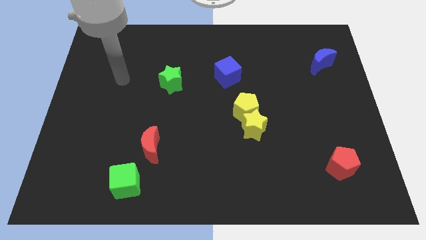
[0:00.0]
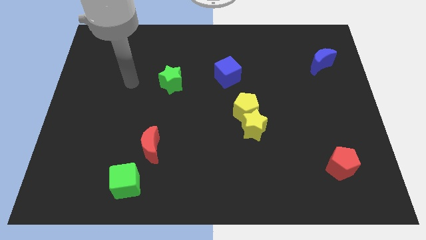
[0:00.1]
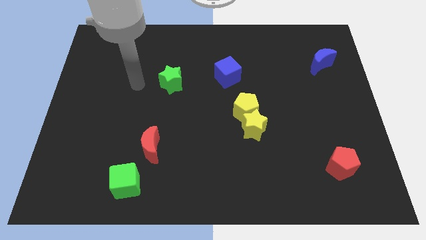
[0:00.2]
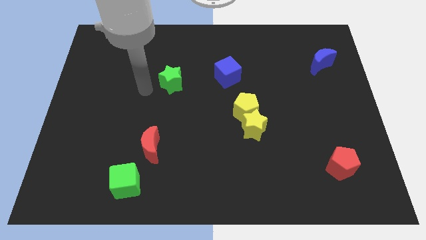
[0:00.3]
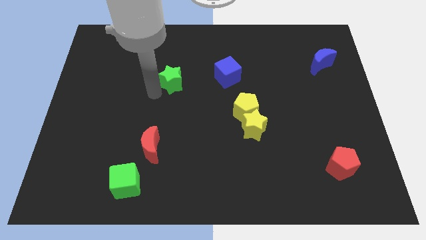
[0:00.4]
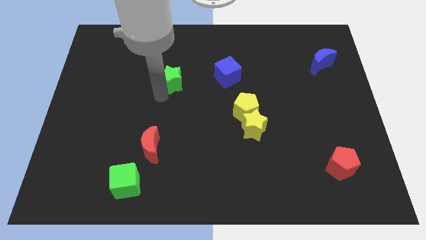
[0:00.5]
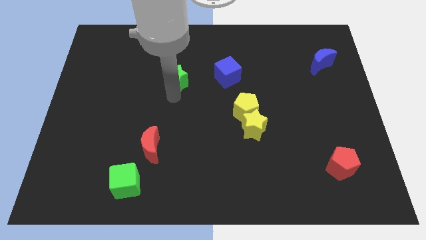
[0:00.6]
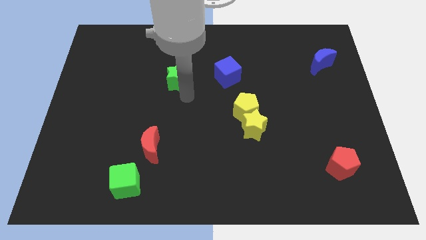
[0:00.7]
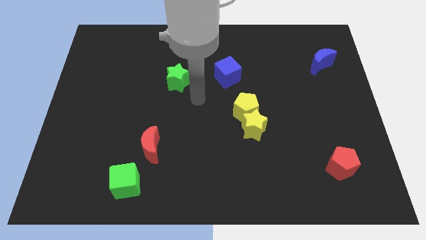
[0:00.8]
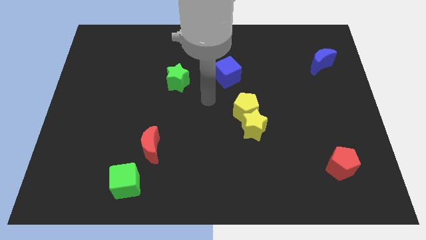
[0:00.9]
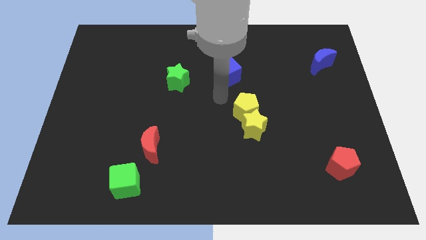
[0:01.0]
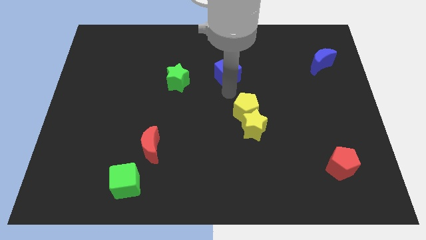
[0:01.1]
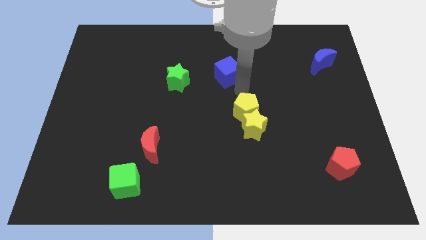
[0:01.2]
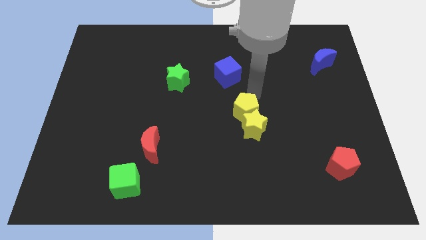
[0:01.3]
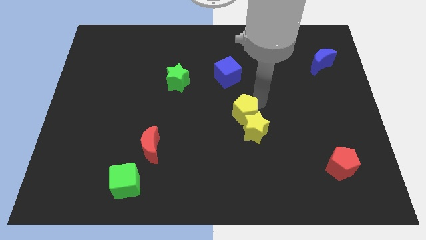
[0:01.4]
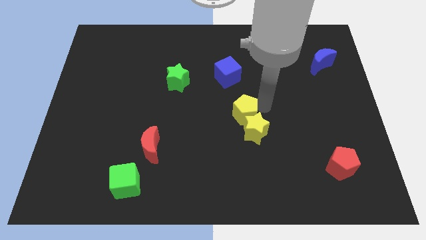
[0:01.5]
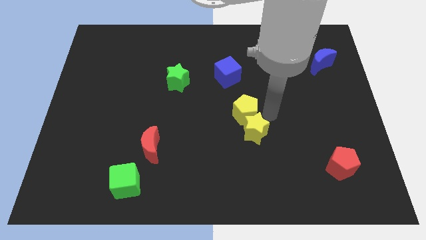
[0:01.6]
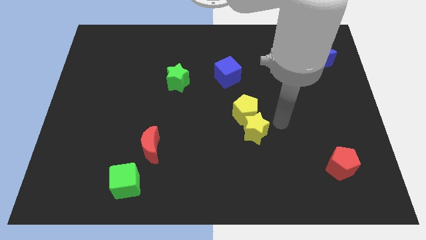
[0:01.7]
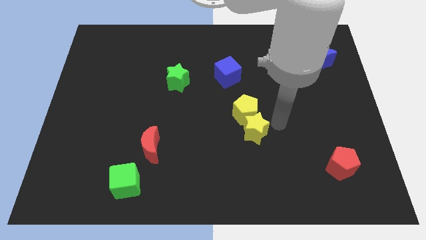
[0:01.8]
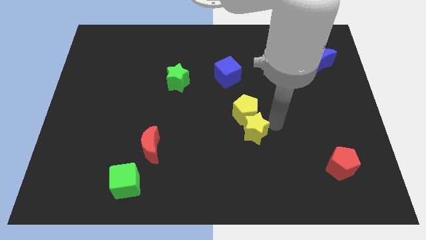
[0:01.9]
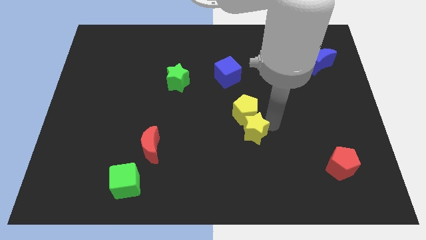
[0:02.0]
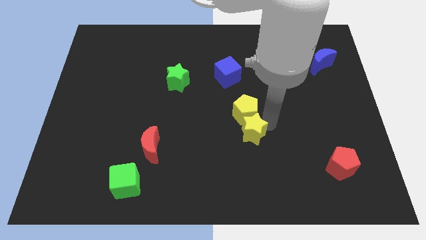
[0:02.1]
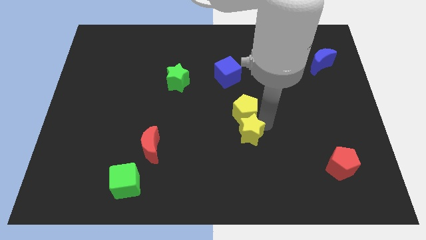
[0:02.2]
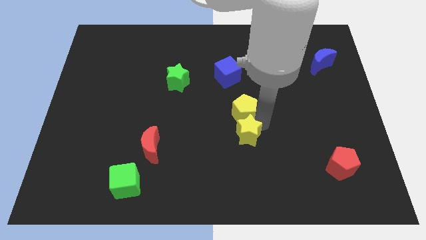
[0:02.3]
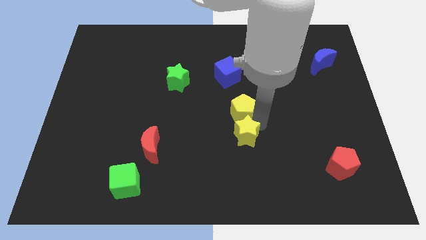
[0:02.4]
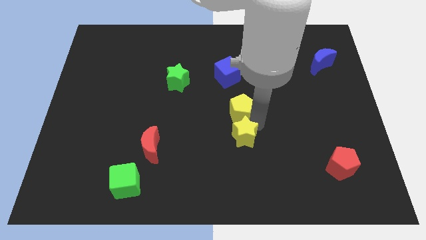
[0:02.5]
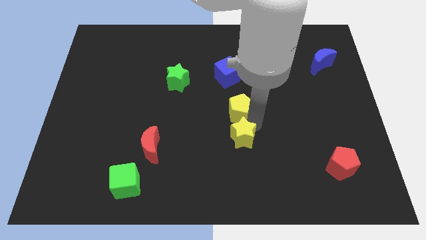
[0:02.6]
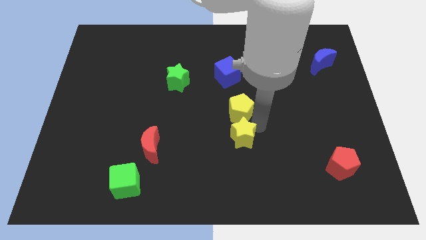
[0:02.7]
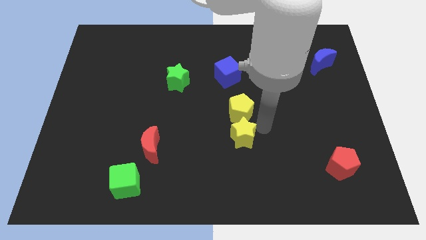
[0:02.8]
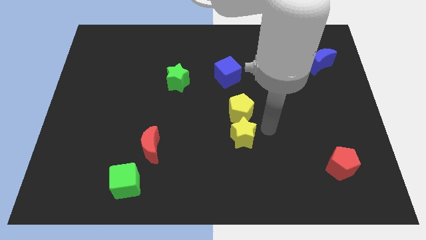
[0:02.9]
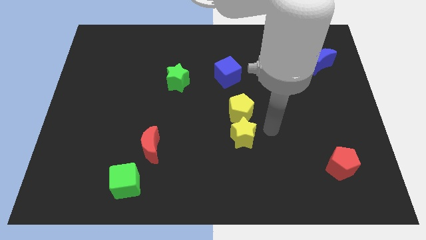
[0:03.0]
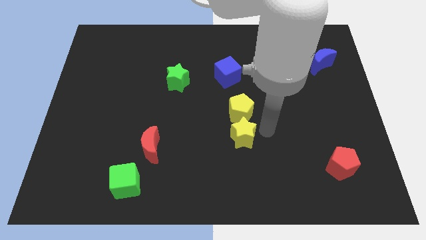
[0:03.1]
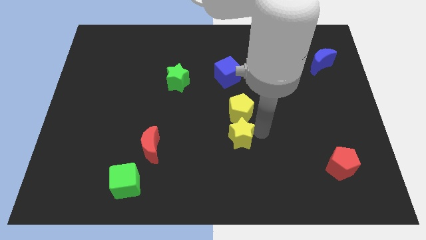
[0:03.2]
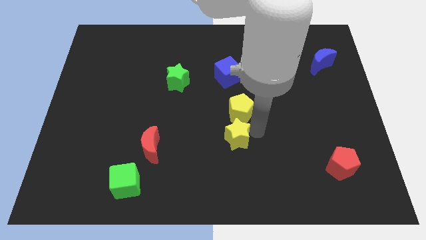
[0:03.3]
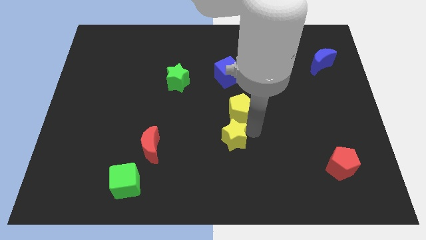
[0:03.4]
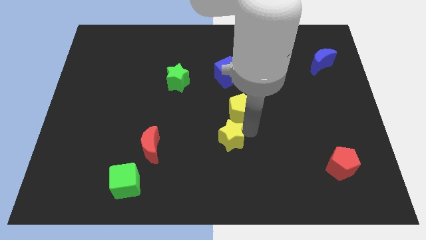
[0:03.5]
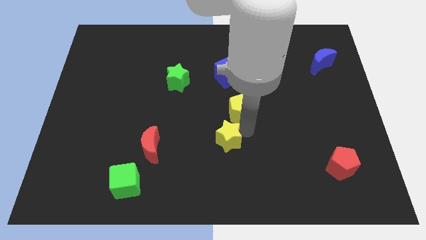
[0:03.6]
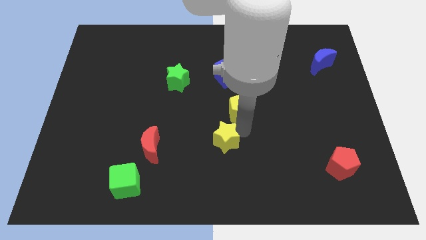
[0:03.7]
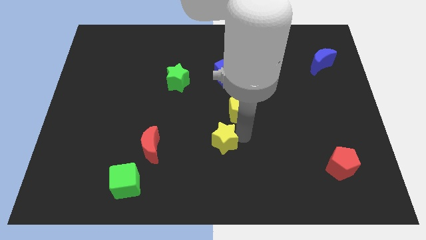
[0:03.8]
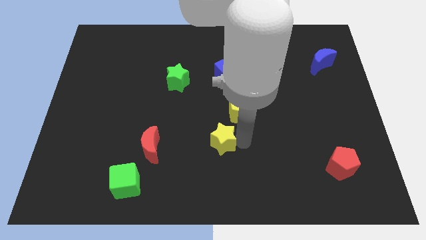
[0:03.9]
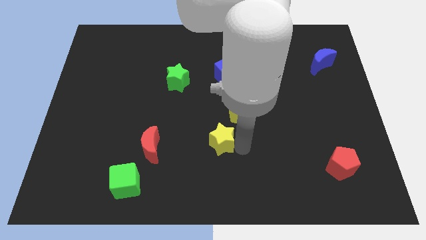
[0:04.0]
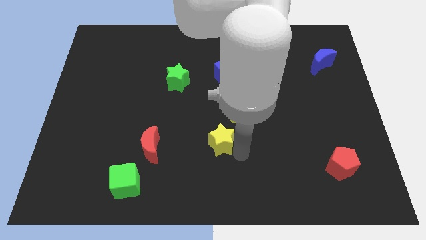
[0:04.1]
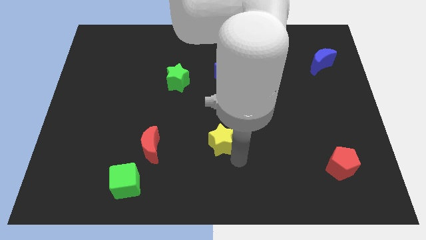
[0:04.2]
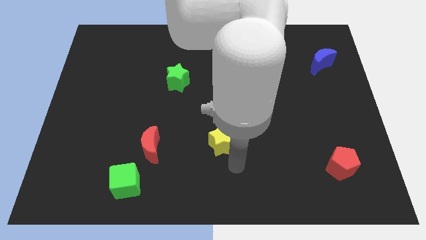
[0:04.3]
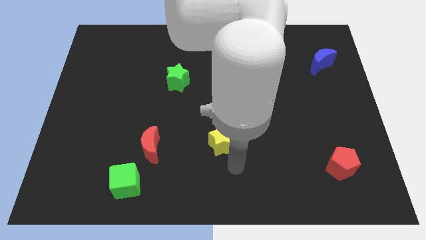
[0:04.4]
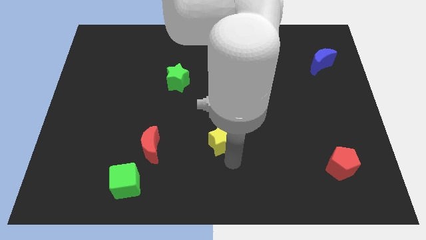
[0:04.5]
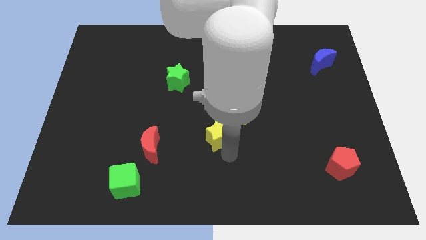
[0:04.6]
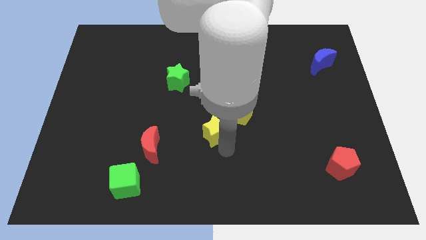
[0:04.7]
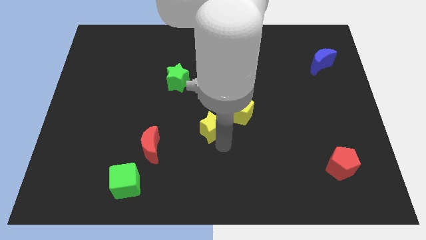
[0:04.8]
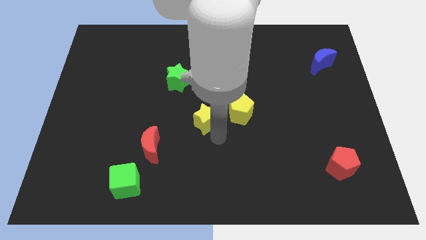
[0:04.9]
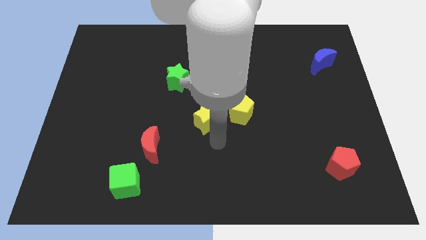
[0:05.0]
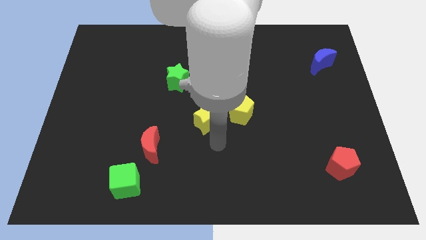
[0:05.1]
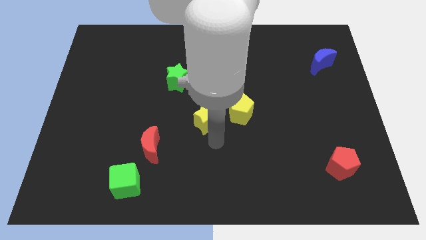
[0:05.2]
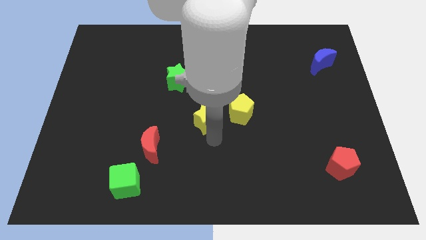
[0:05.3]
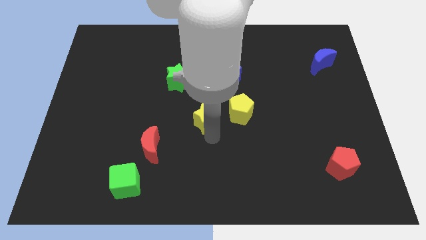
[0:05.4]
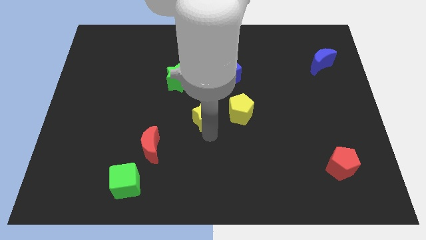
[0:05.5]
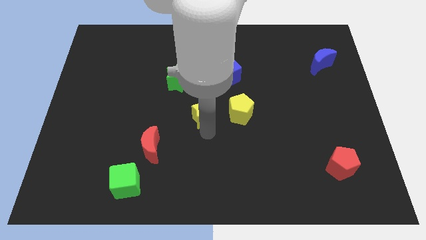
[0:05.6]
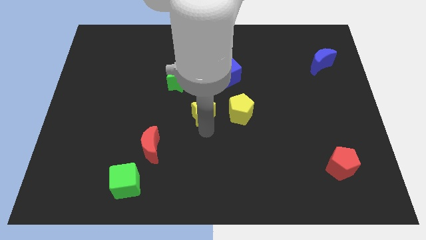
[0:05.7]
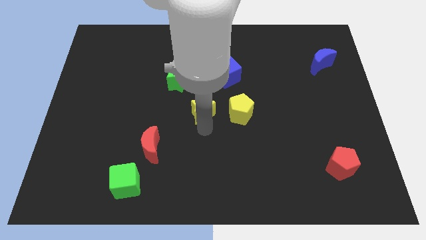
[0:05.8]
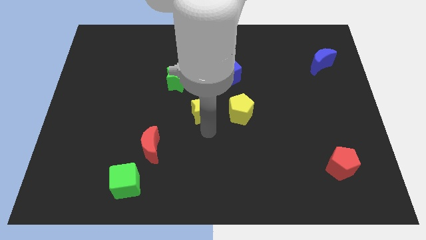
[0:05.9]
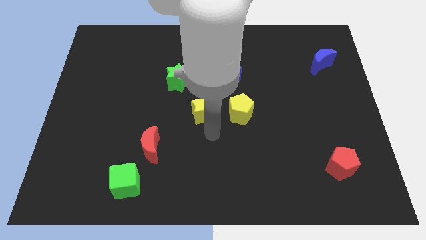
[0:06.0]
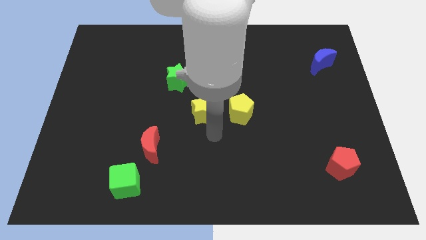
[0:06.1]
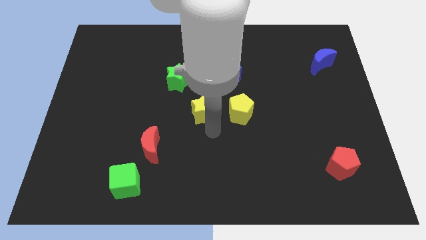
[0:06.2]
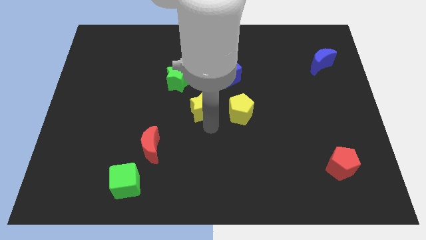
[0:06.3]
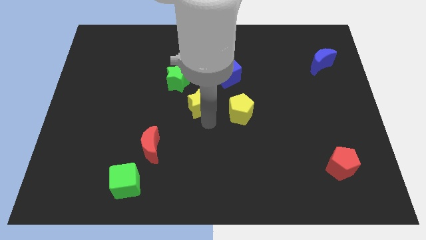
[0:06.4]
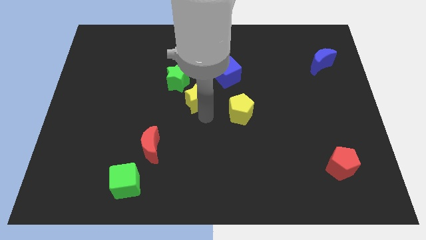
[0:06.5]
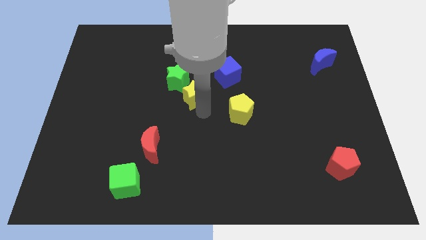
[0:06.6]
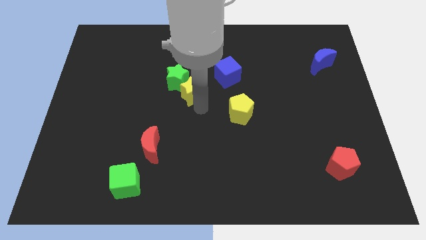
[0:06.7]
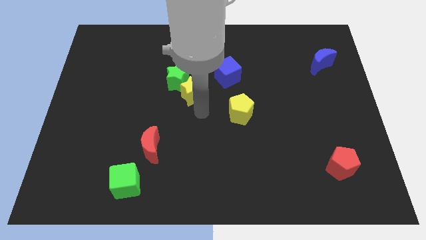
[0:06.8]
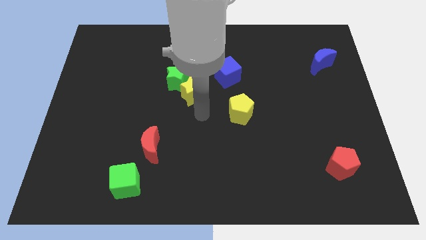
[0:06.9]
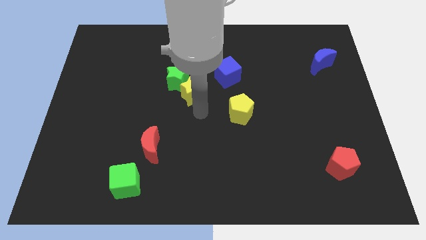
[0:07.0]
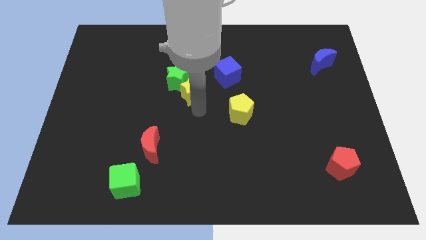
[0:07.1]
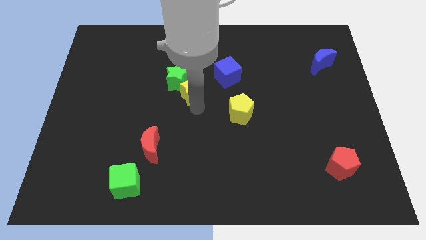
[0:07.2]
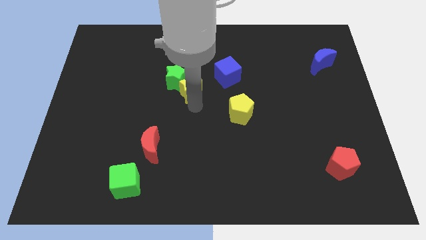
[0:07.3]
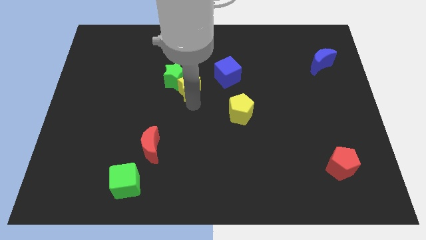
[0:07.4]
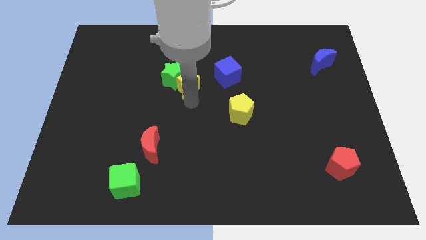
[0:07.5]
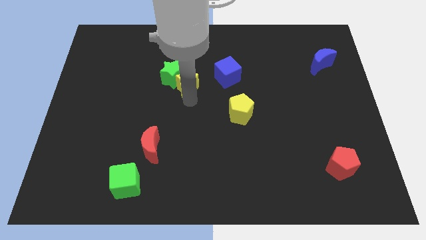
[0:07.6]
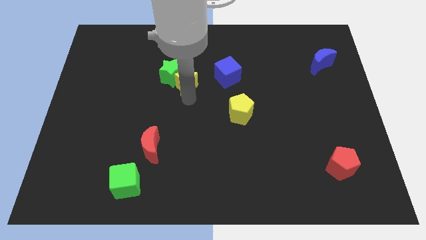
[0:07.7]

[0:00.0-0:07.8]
move the yellow star upwards and to the left diagonally

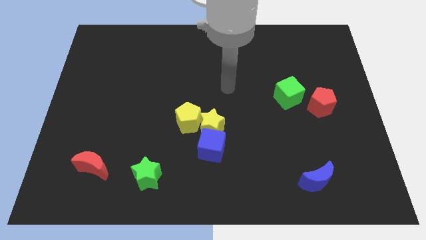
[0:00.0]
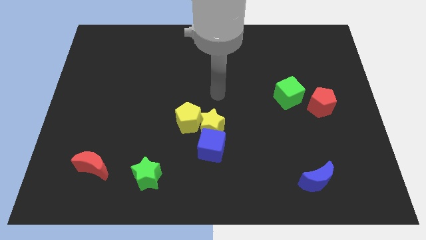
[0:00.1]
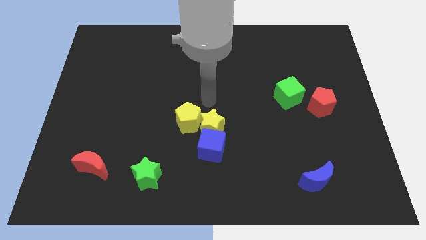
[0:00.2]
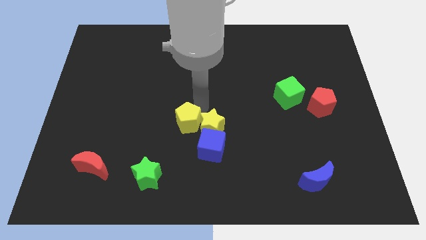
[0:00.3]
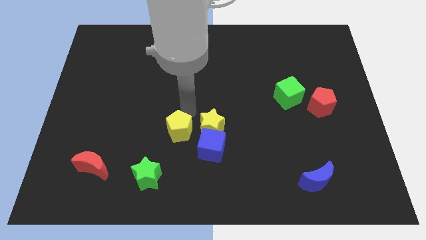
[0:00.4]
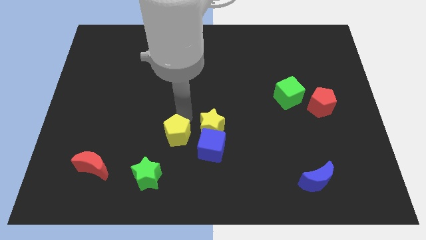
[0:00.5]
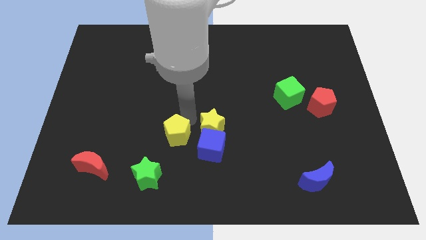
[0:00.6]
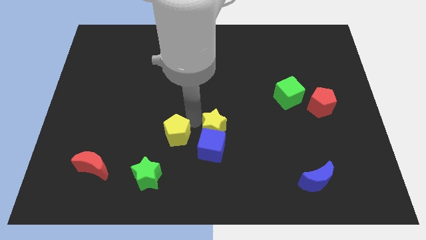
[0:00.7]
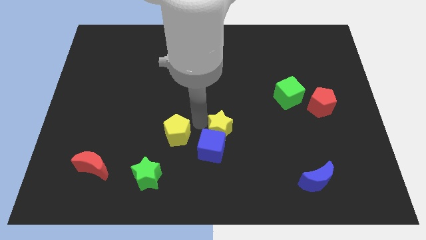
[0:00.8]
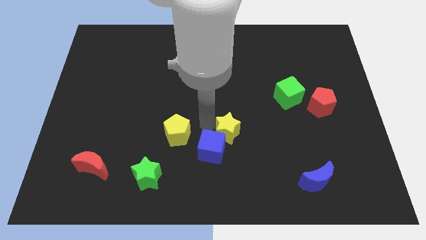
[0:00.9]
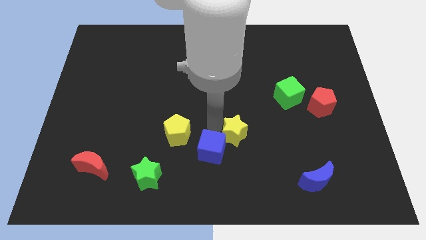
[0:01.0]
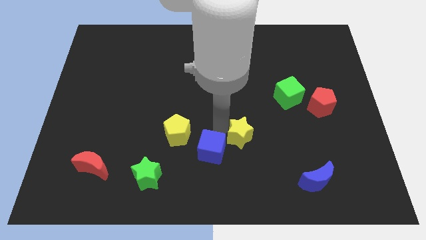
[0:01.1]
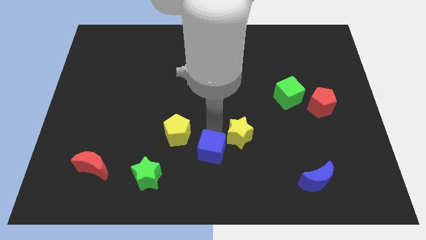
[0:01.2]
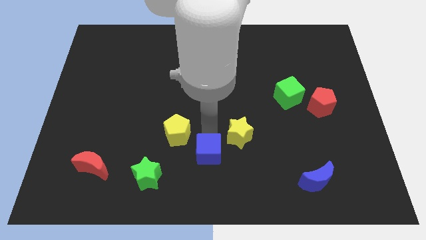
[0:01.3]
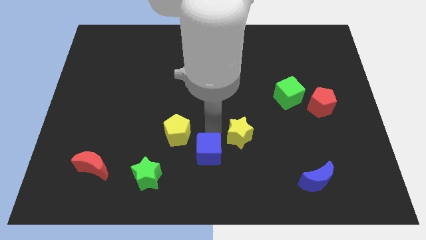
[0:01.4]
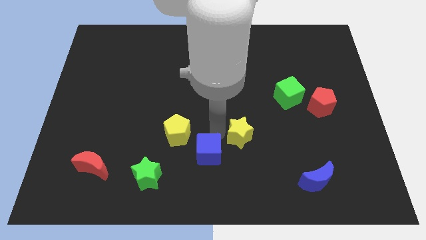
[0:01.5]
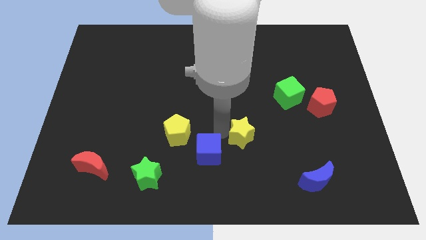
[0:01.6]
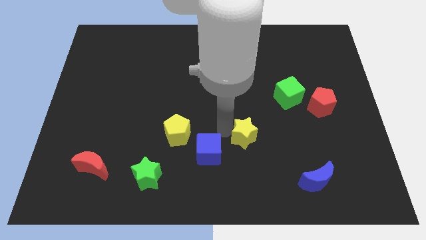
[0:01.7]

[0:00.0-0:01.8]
move the yellow star a little bit right
